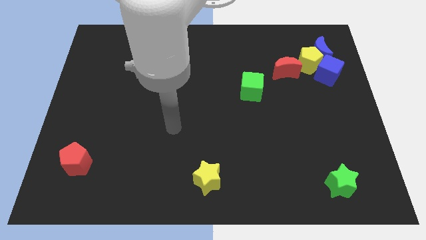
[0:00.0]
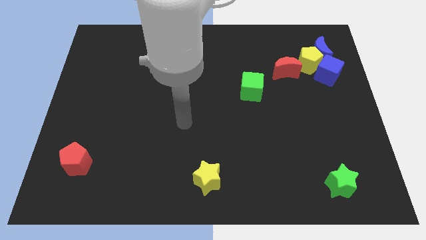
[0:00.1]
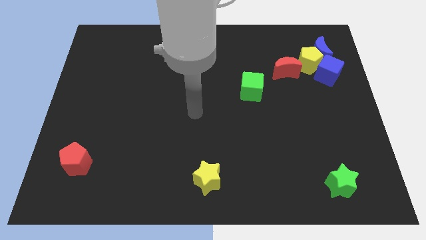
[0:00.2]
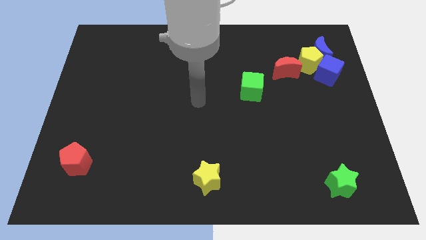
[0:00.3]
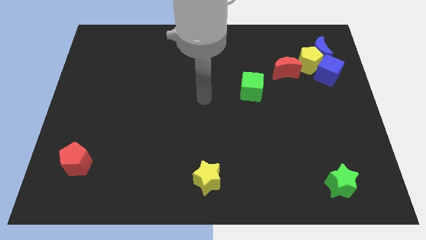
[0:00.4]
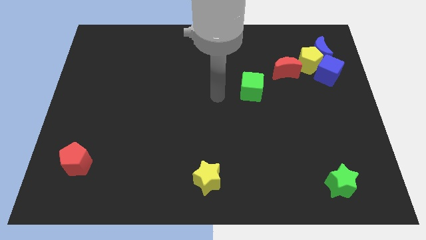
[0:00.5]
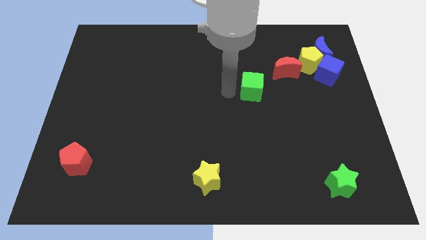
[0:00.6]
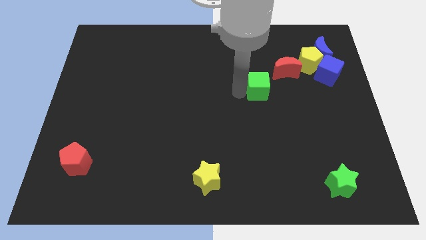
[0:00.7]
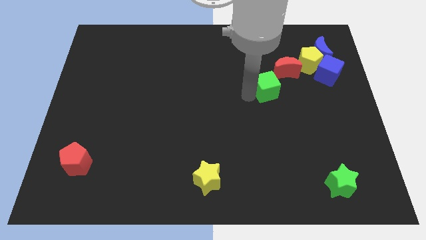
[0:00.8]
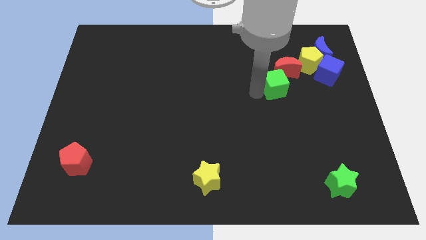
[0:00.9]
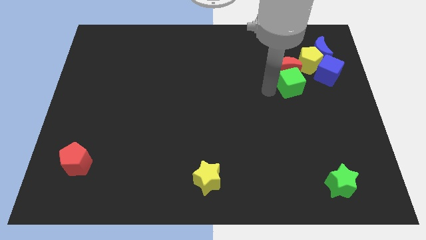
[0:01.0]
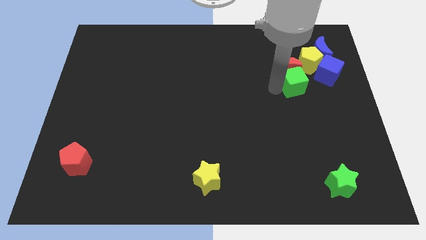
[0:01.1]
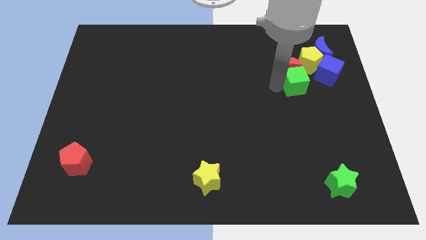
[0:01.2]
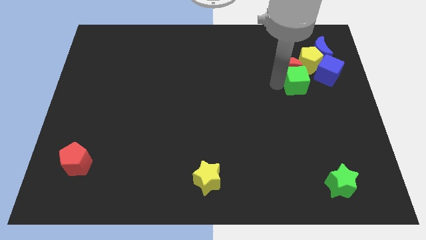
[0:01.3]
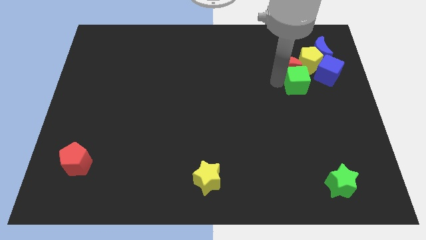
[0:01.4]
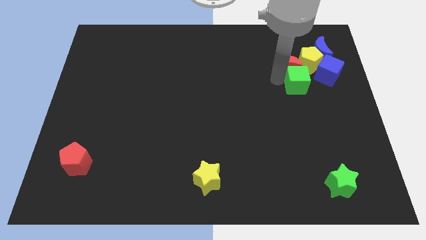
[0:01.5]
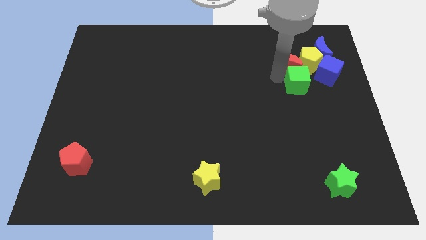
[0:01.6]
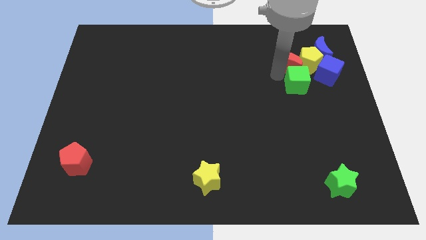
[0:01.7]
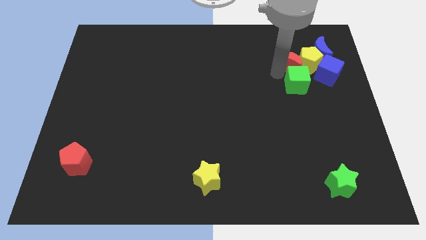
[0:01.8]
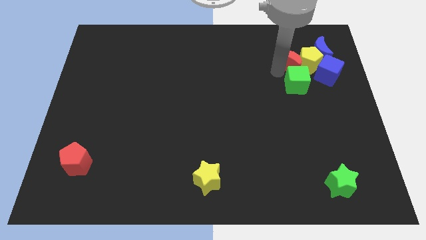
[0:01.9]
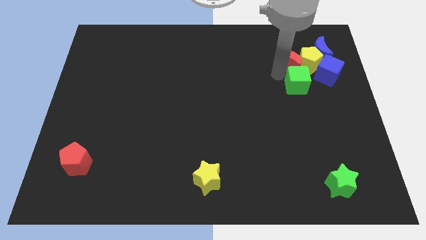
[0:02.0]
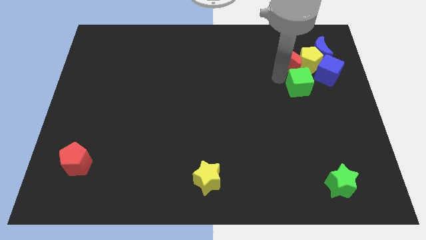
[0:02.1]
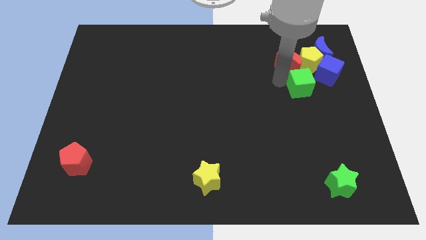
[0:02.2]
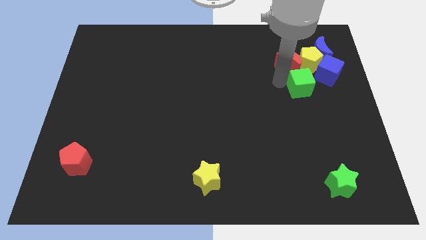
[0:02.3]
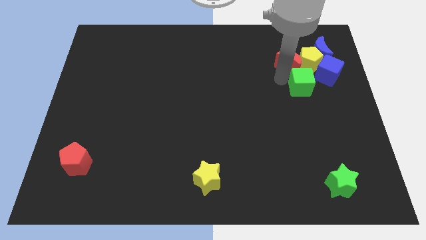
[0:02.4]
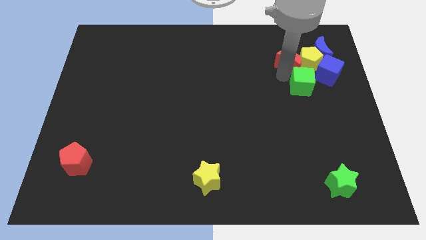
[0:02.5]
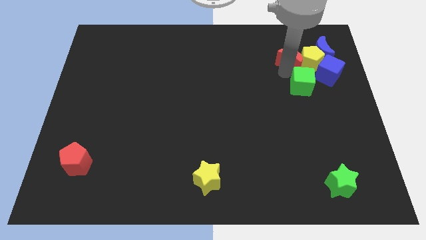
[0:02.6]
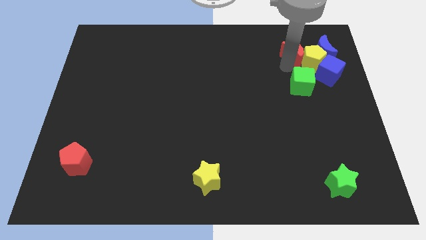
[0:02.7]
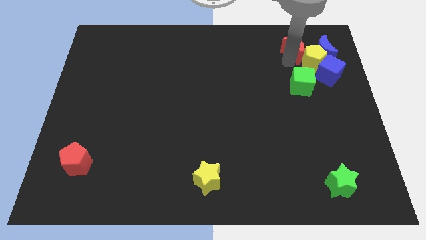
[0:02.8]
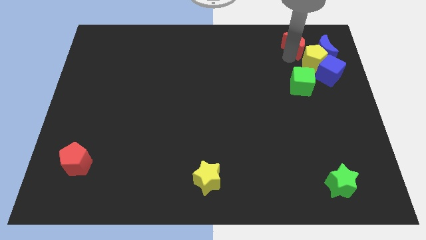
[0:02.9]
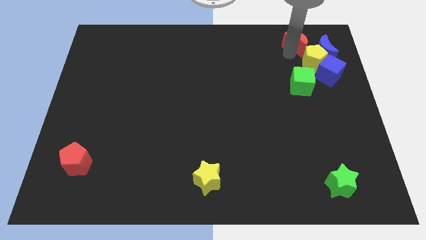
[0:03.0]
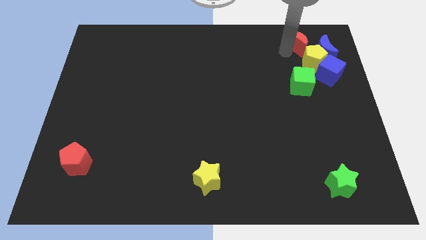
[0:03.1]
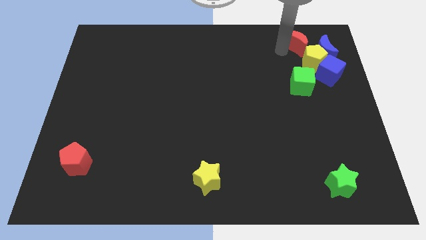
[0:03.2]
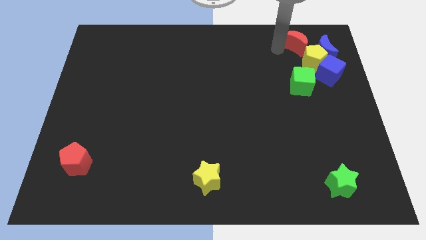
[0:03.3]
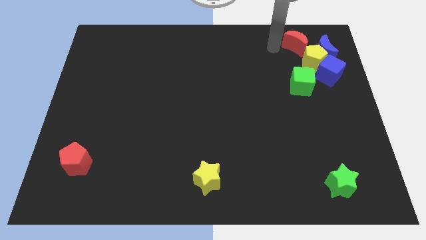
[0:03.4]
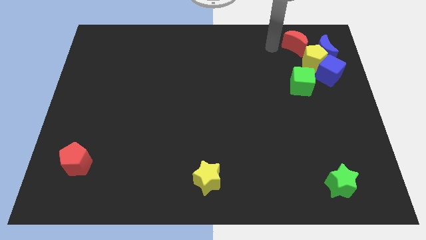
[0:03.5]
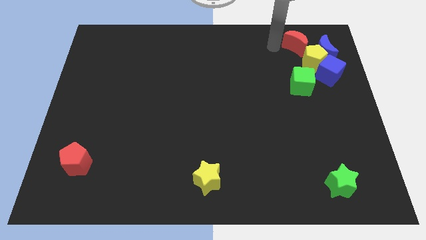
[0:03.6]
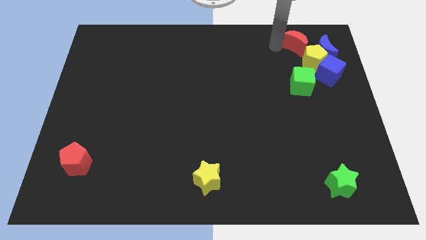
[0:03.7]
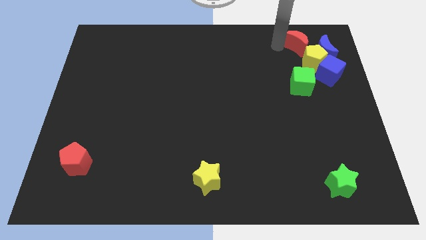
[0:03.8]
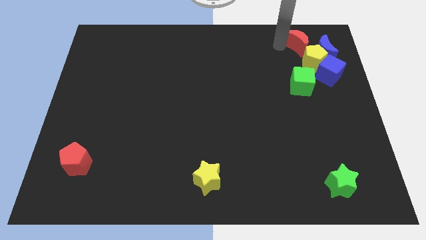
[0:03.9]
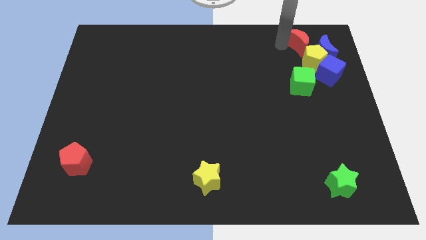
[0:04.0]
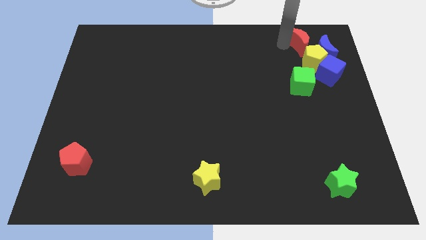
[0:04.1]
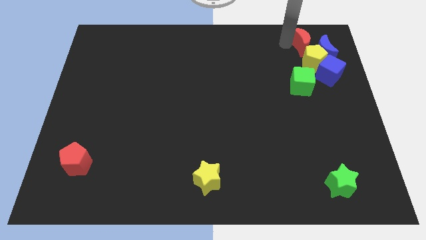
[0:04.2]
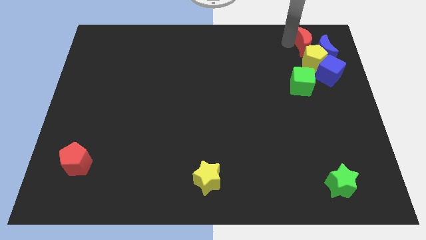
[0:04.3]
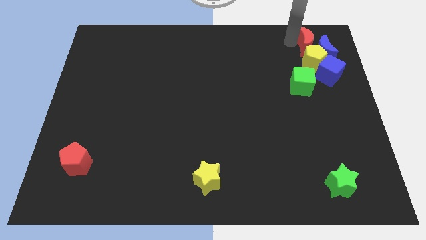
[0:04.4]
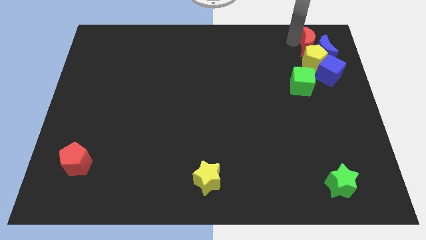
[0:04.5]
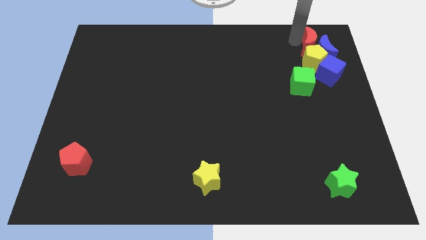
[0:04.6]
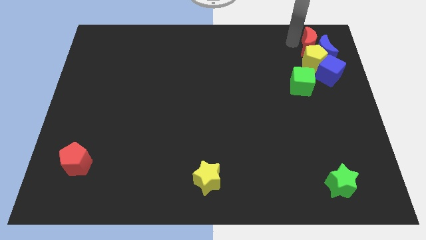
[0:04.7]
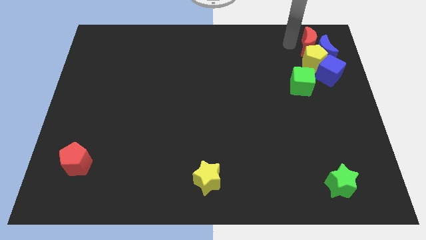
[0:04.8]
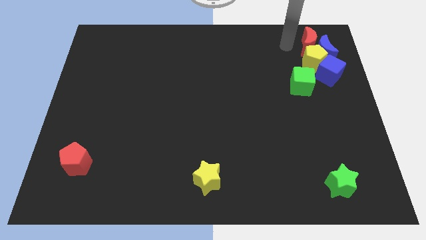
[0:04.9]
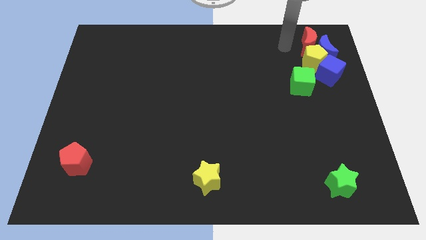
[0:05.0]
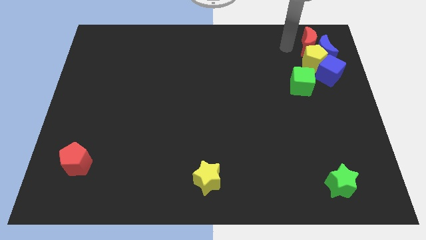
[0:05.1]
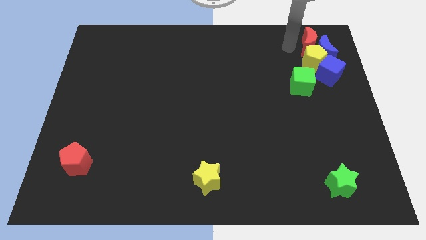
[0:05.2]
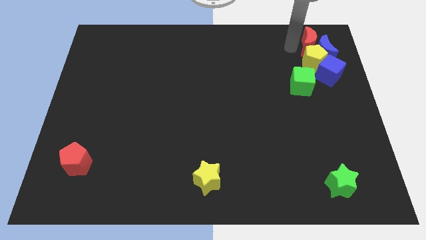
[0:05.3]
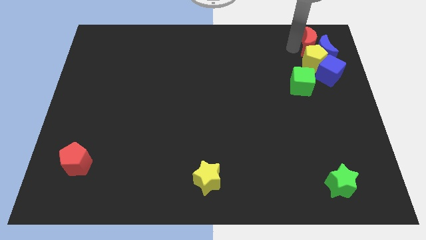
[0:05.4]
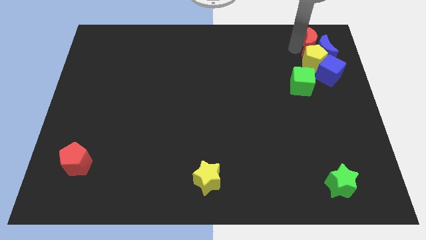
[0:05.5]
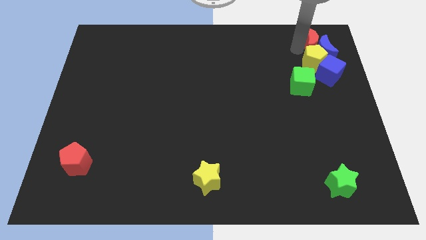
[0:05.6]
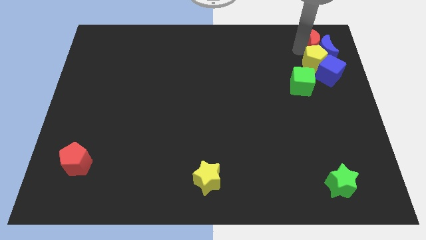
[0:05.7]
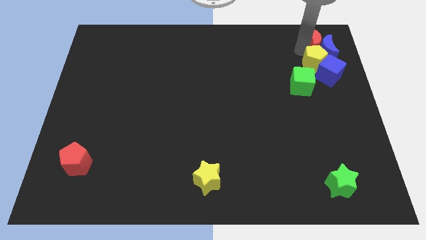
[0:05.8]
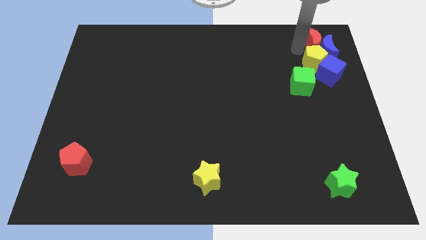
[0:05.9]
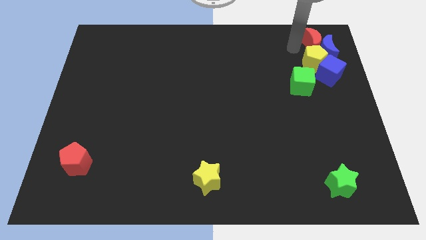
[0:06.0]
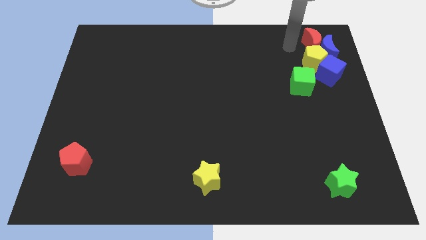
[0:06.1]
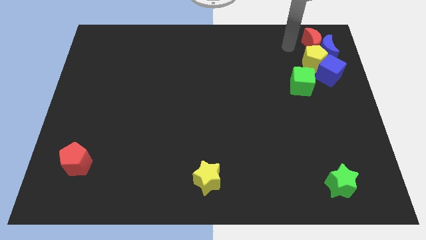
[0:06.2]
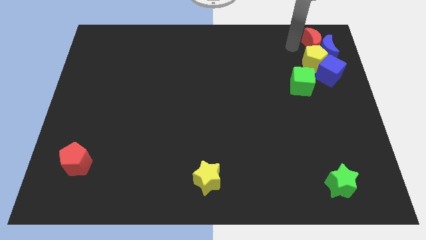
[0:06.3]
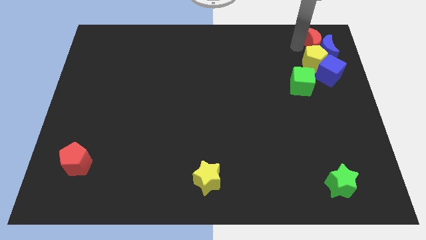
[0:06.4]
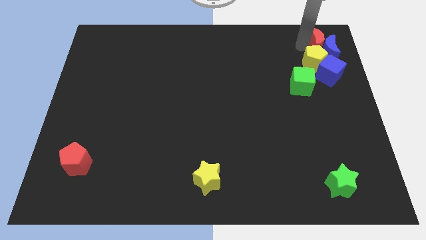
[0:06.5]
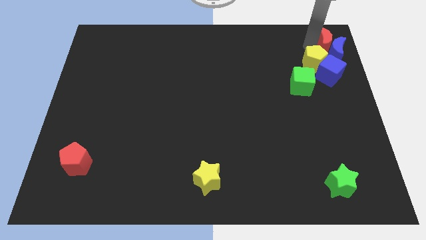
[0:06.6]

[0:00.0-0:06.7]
push the red moon to the top right corner
